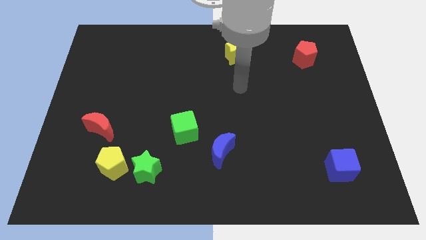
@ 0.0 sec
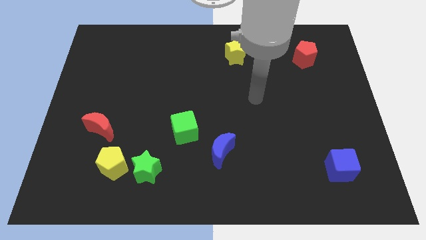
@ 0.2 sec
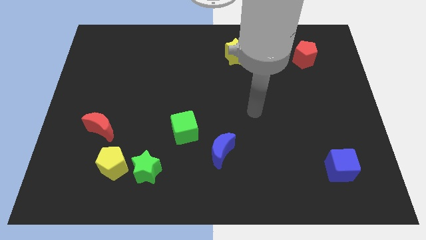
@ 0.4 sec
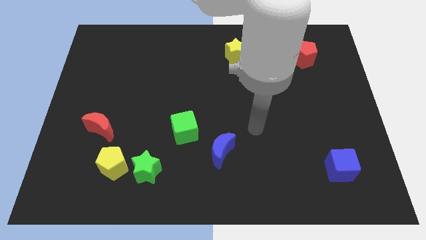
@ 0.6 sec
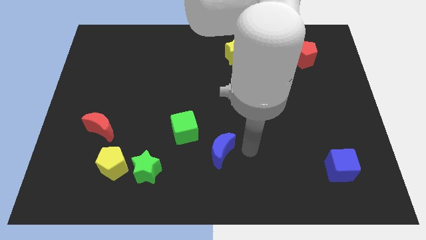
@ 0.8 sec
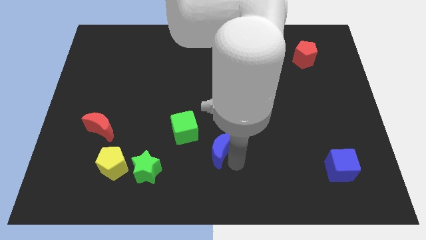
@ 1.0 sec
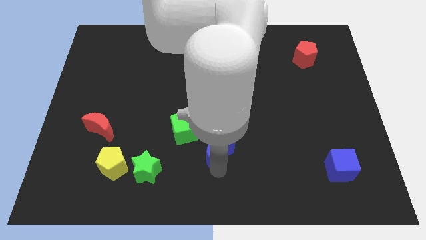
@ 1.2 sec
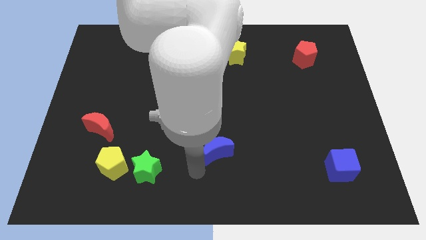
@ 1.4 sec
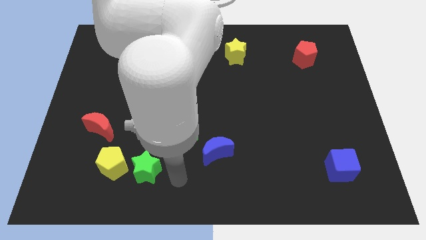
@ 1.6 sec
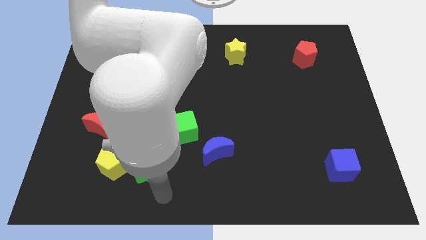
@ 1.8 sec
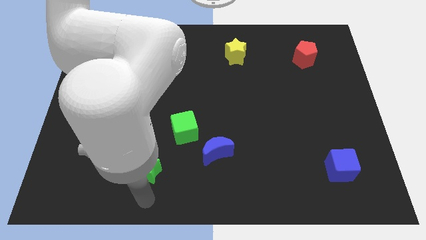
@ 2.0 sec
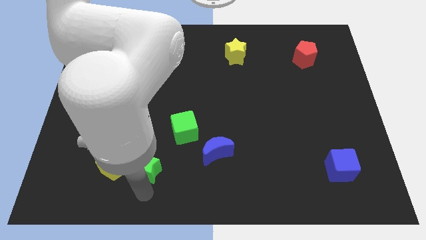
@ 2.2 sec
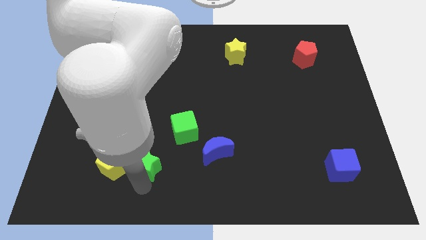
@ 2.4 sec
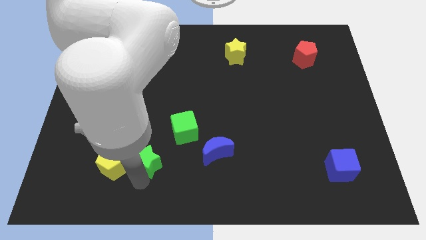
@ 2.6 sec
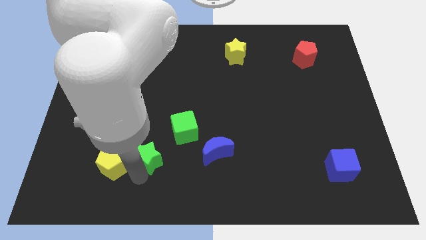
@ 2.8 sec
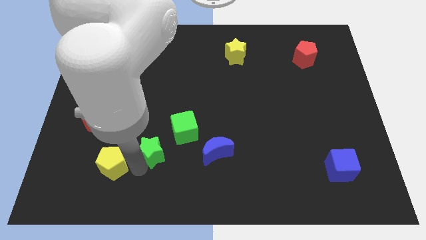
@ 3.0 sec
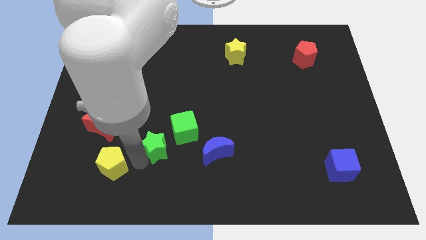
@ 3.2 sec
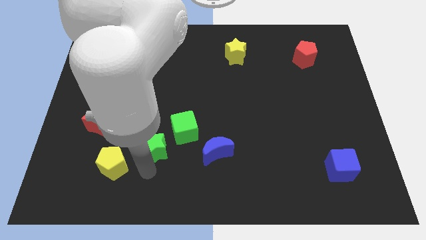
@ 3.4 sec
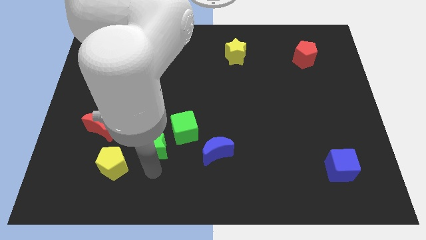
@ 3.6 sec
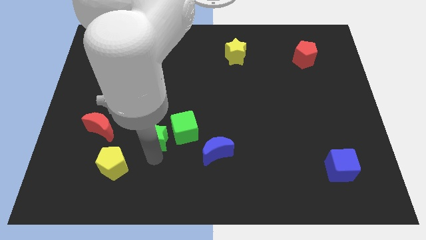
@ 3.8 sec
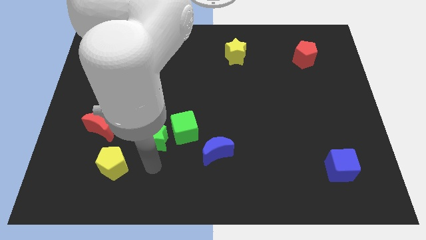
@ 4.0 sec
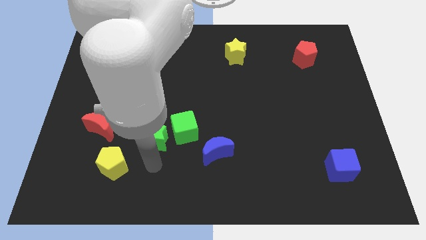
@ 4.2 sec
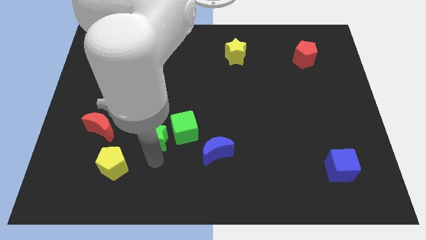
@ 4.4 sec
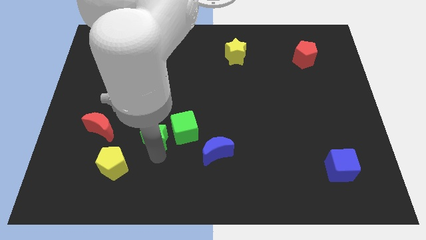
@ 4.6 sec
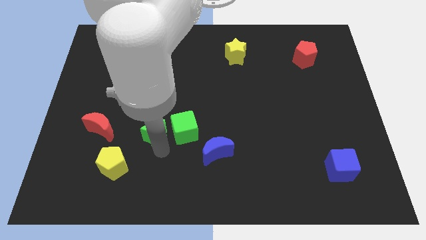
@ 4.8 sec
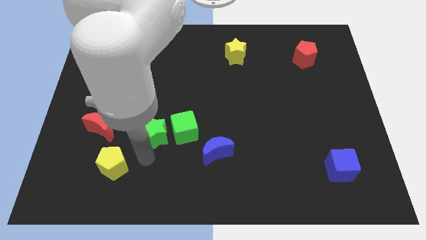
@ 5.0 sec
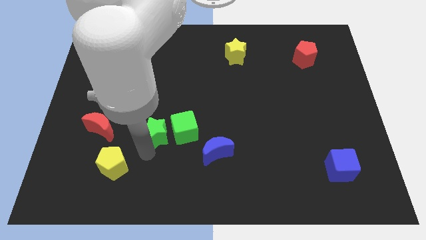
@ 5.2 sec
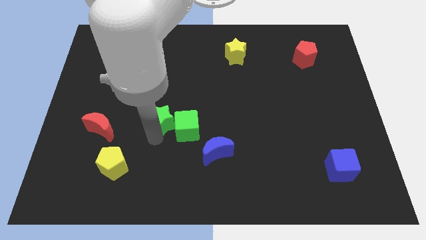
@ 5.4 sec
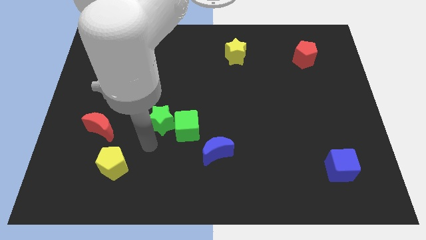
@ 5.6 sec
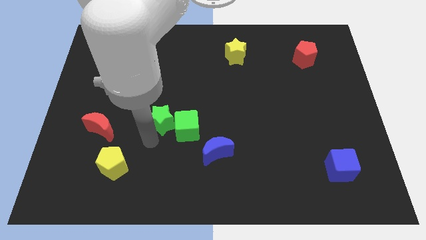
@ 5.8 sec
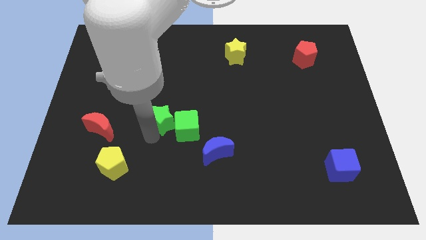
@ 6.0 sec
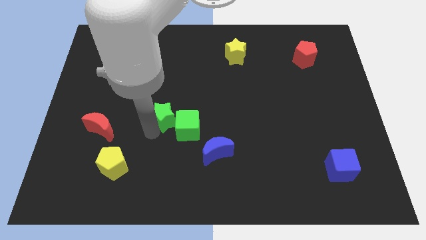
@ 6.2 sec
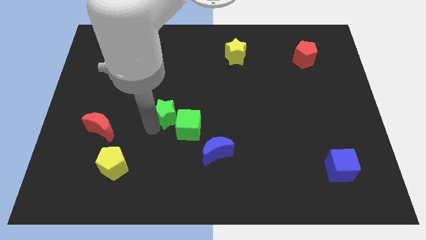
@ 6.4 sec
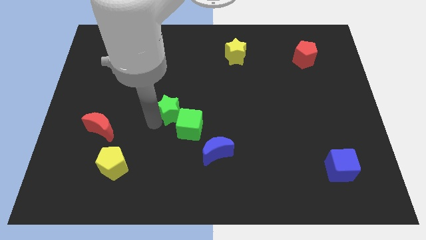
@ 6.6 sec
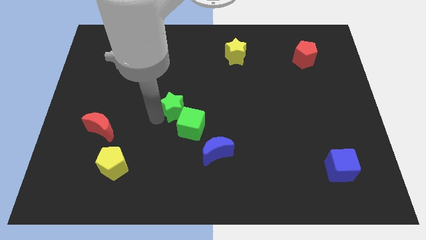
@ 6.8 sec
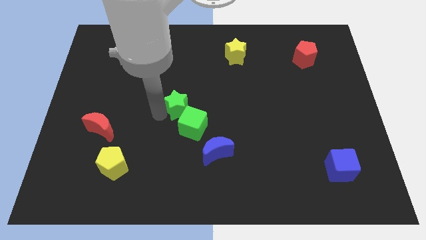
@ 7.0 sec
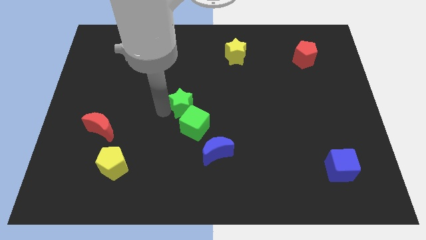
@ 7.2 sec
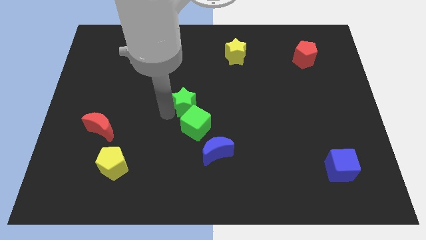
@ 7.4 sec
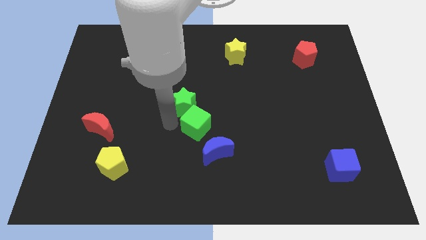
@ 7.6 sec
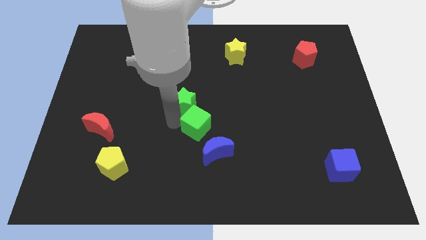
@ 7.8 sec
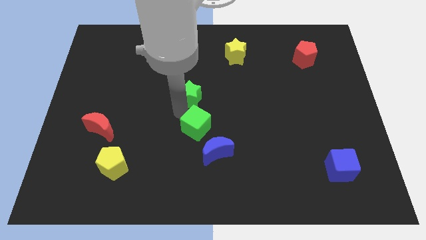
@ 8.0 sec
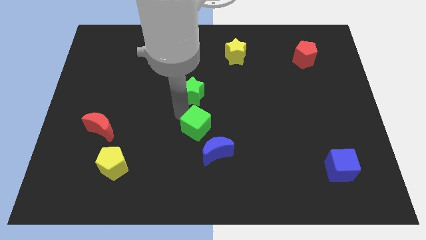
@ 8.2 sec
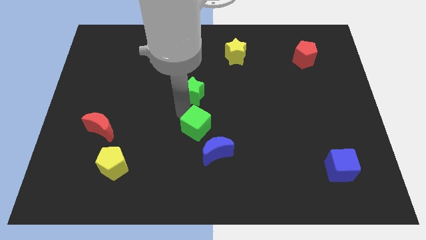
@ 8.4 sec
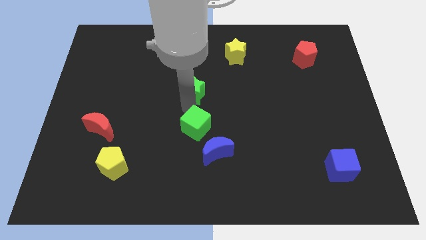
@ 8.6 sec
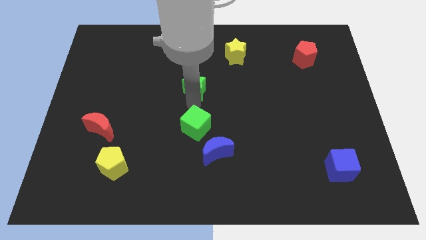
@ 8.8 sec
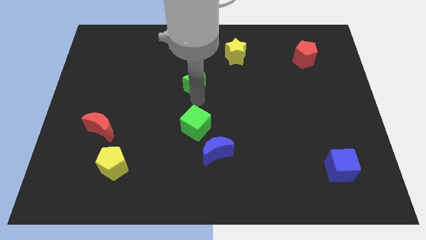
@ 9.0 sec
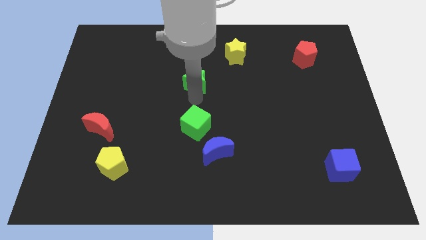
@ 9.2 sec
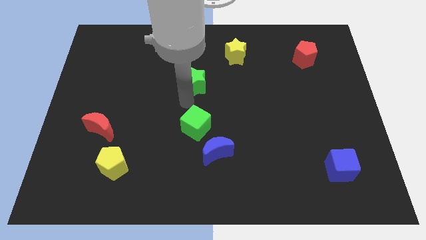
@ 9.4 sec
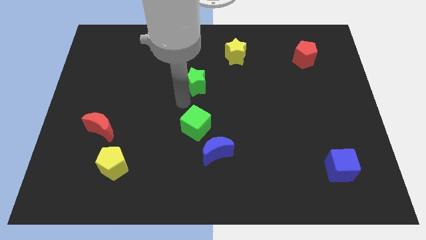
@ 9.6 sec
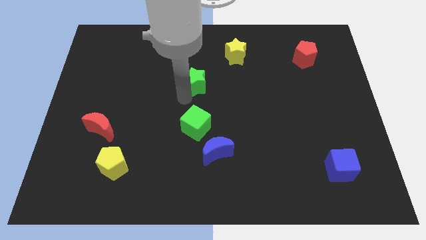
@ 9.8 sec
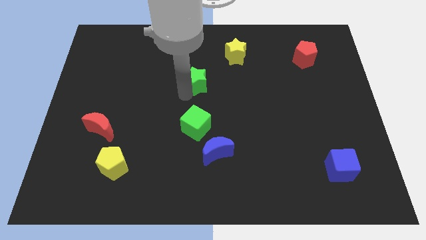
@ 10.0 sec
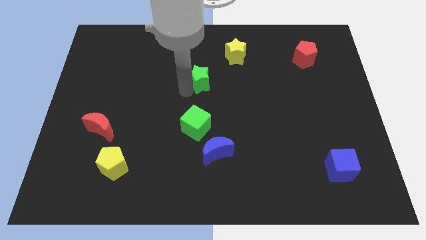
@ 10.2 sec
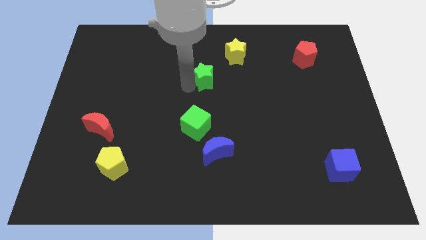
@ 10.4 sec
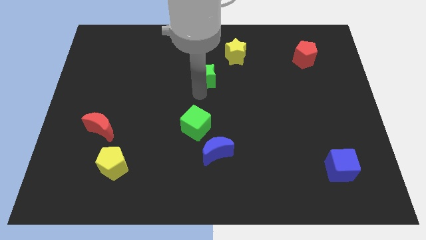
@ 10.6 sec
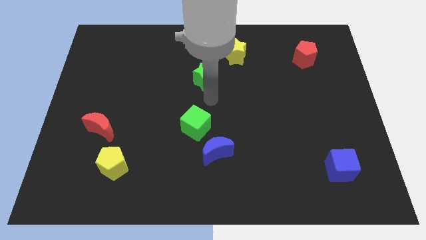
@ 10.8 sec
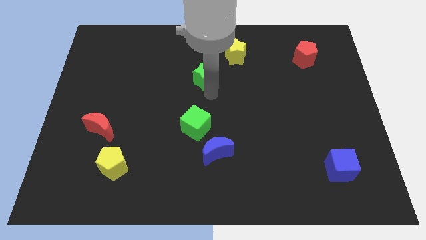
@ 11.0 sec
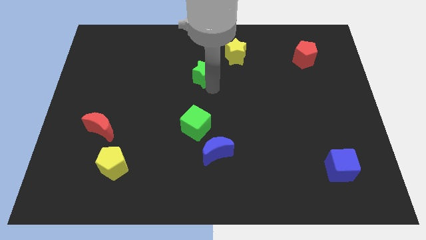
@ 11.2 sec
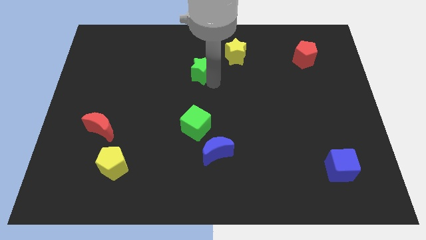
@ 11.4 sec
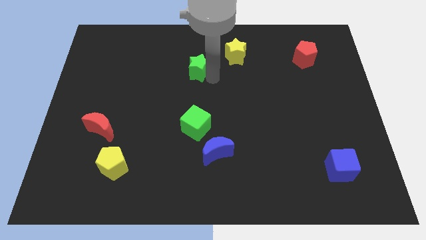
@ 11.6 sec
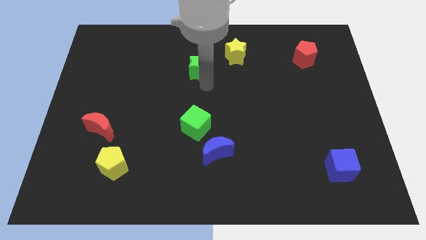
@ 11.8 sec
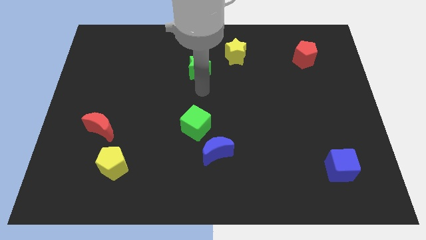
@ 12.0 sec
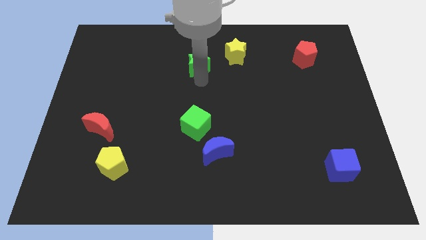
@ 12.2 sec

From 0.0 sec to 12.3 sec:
slide the green star left of the yellow star
